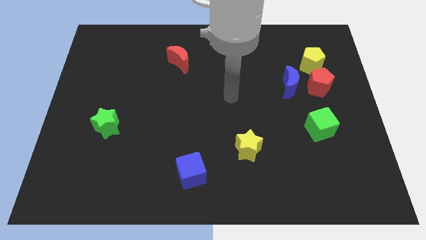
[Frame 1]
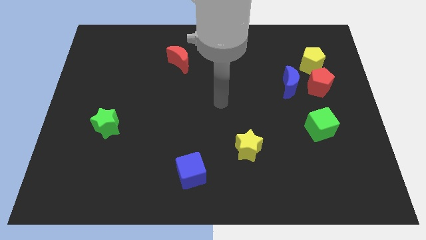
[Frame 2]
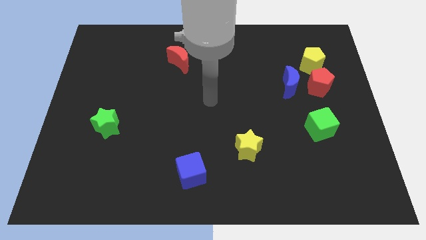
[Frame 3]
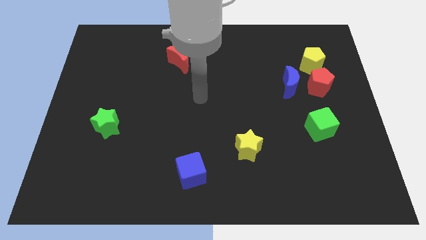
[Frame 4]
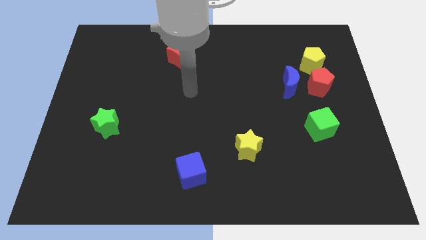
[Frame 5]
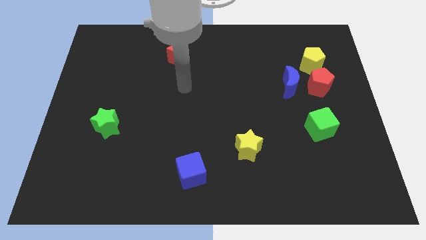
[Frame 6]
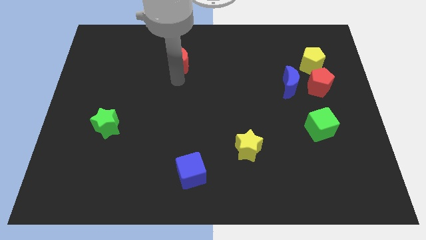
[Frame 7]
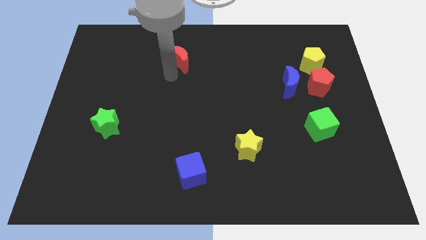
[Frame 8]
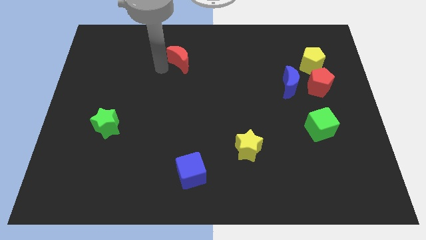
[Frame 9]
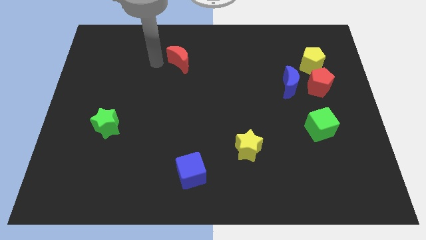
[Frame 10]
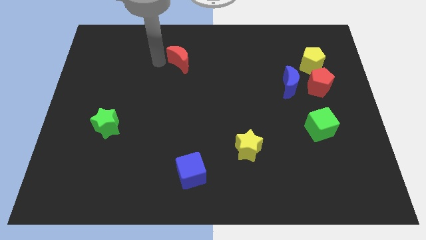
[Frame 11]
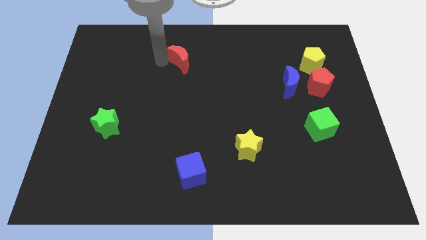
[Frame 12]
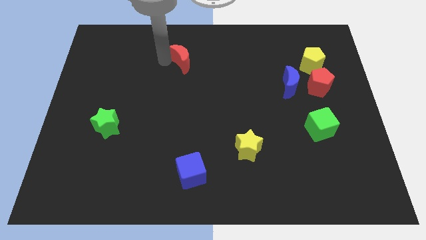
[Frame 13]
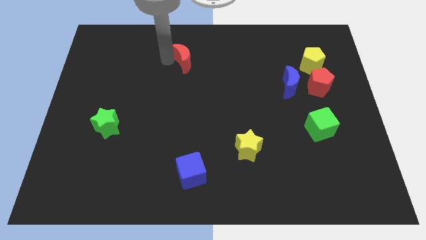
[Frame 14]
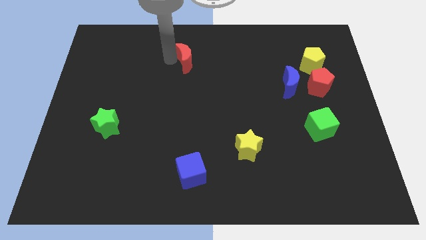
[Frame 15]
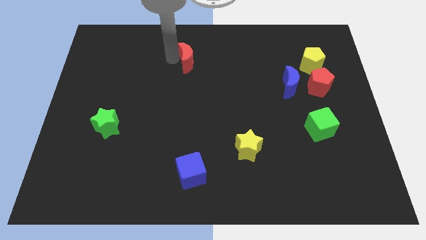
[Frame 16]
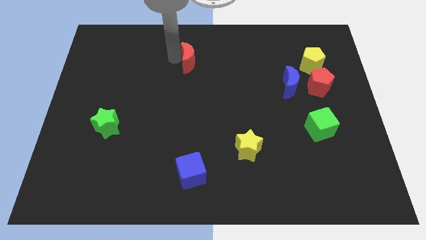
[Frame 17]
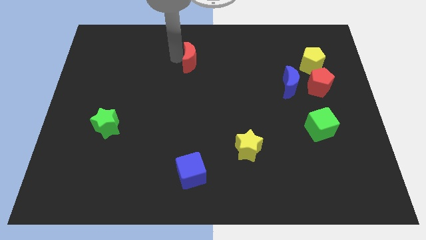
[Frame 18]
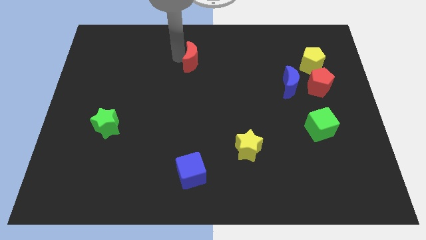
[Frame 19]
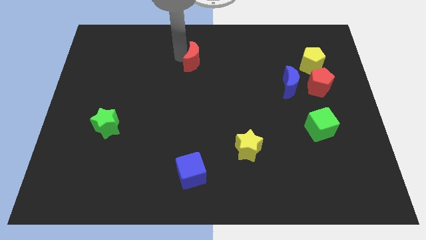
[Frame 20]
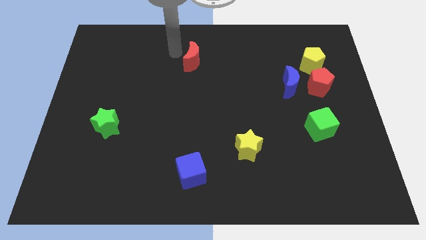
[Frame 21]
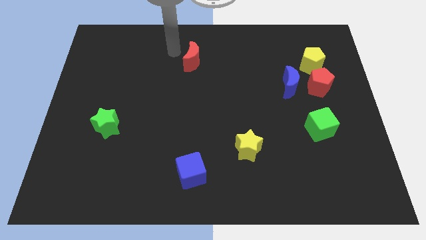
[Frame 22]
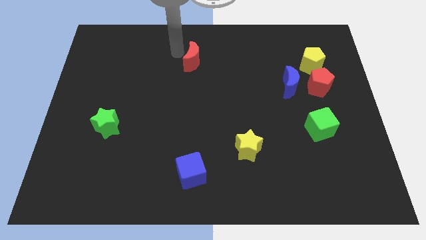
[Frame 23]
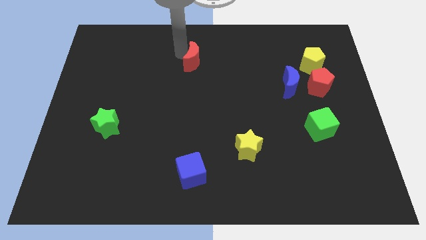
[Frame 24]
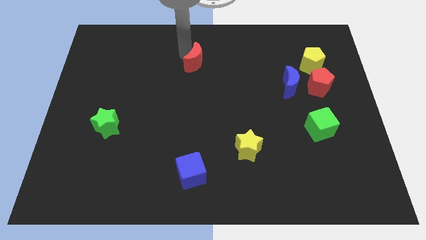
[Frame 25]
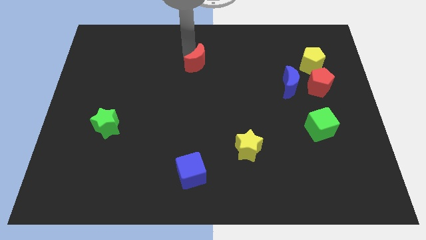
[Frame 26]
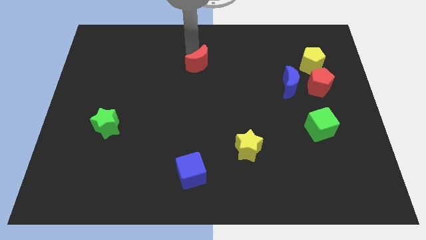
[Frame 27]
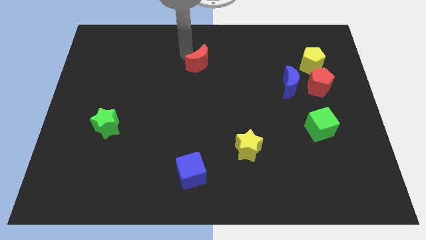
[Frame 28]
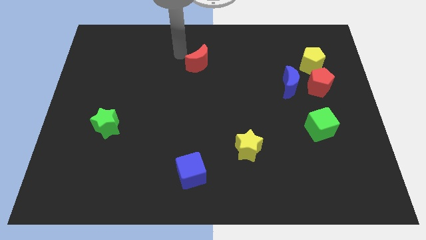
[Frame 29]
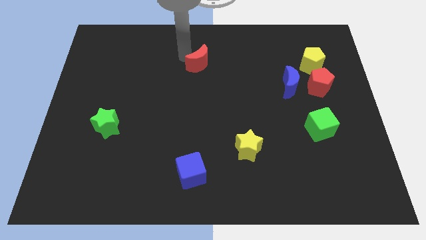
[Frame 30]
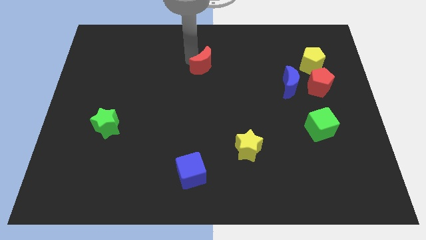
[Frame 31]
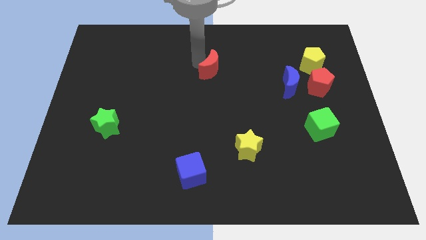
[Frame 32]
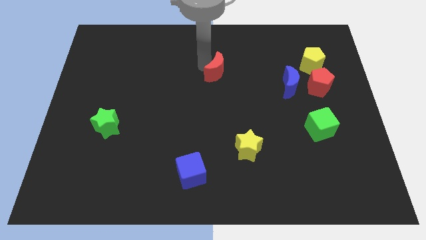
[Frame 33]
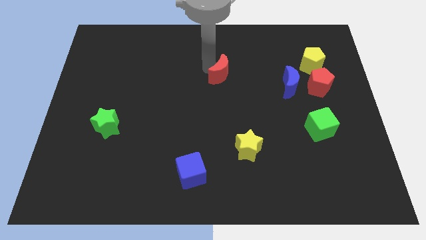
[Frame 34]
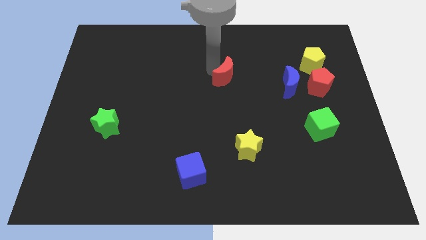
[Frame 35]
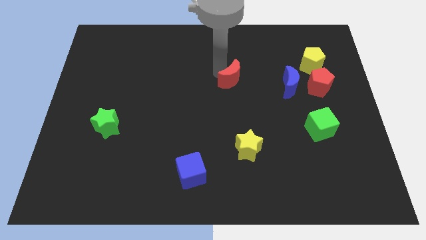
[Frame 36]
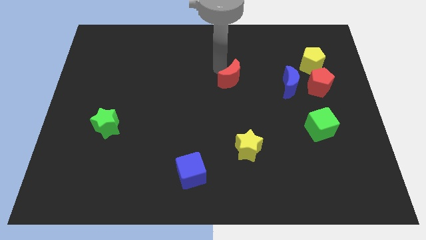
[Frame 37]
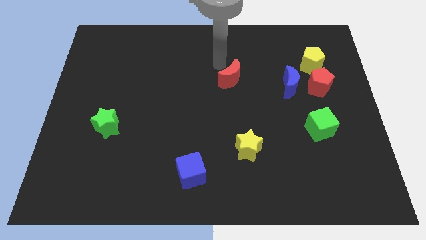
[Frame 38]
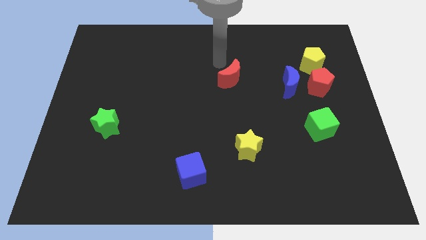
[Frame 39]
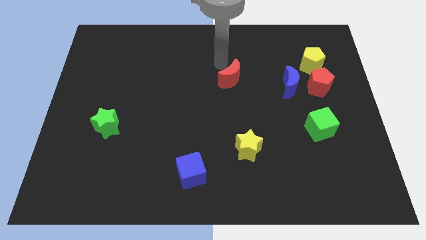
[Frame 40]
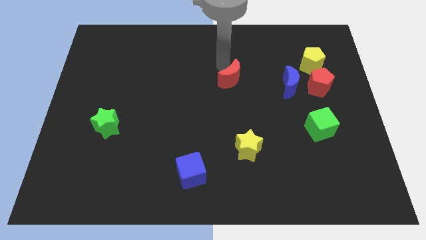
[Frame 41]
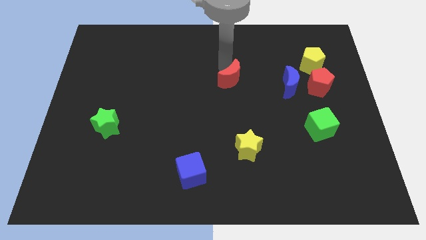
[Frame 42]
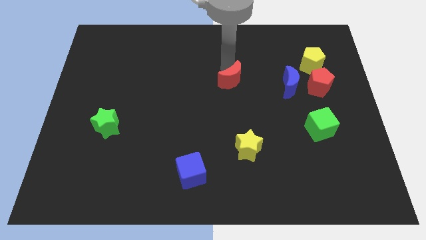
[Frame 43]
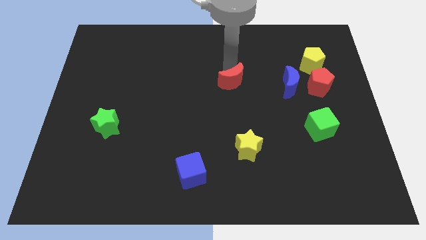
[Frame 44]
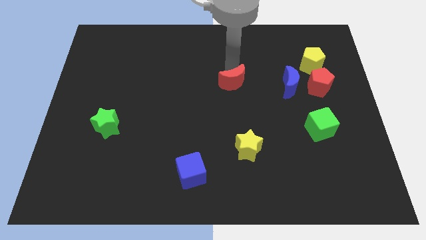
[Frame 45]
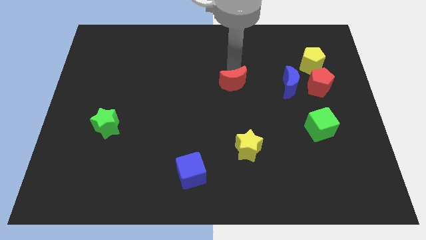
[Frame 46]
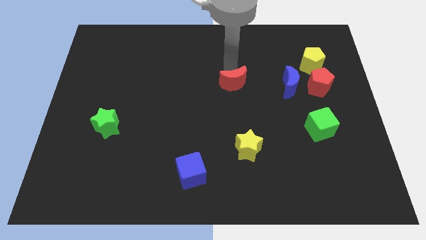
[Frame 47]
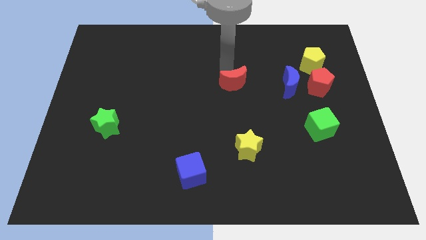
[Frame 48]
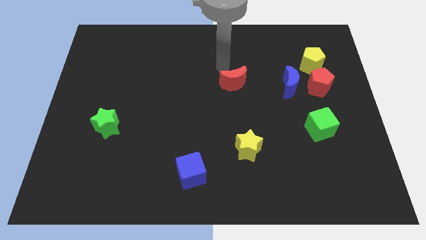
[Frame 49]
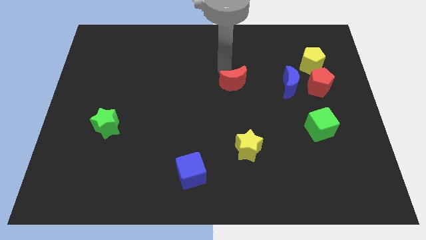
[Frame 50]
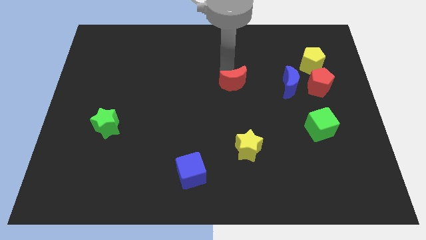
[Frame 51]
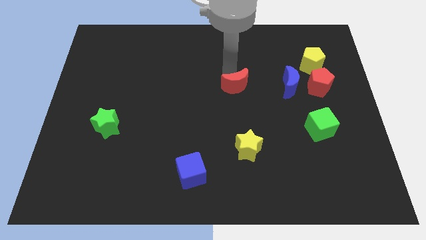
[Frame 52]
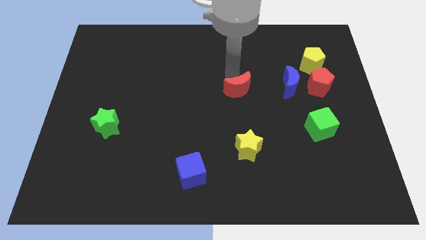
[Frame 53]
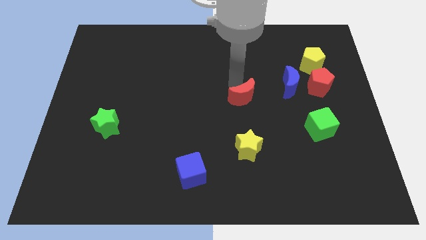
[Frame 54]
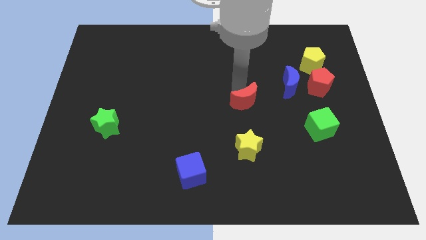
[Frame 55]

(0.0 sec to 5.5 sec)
slide the red moon downwards and to the right

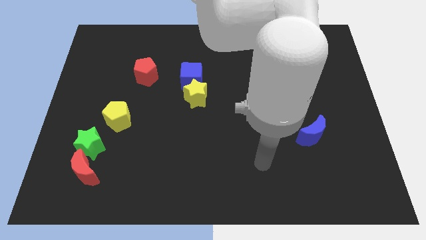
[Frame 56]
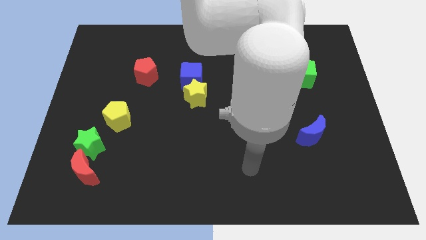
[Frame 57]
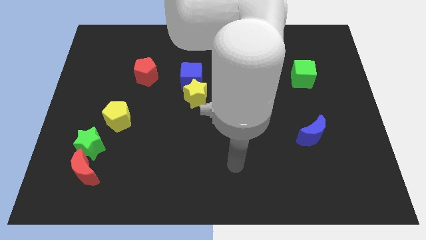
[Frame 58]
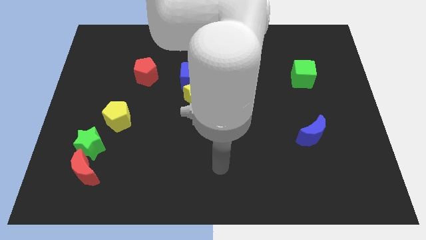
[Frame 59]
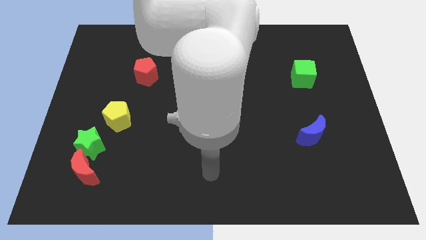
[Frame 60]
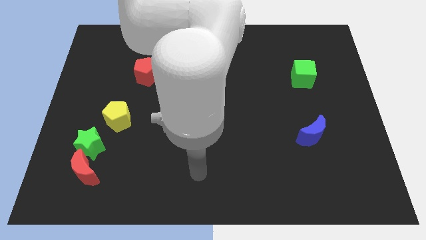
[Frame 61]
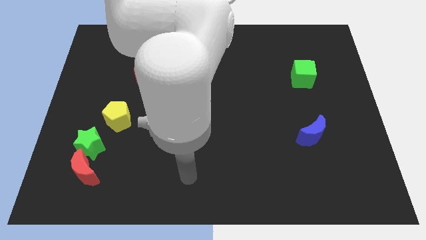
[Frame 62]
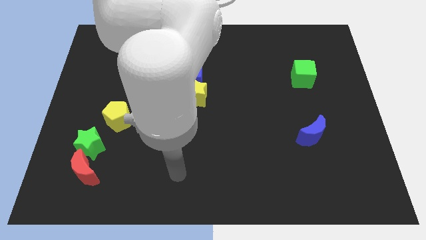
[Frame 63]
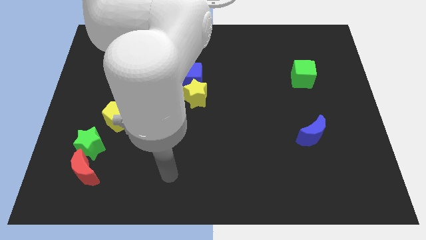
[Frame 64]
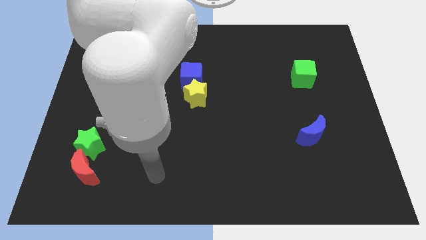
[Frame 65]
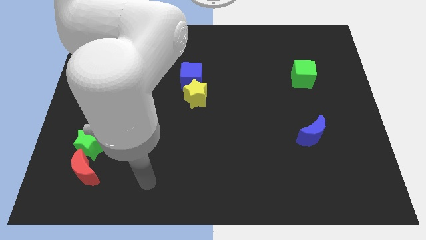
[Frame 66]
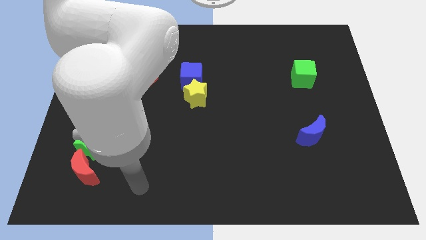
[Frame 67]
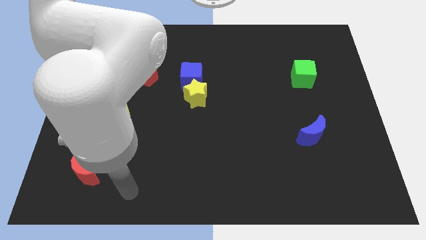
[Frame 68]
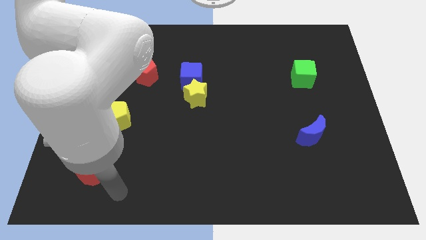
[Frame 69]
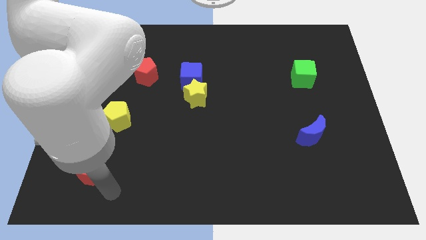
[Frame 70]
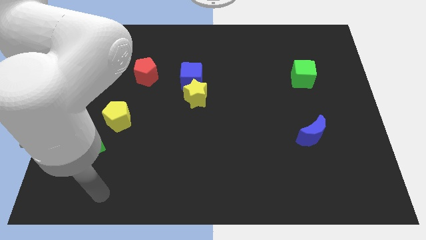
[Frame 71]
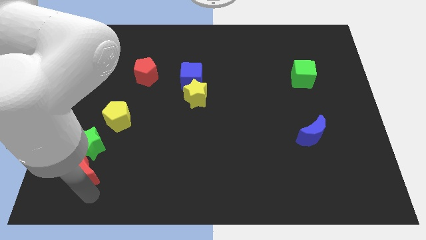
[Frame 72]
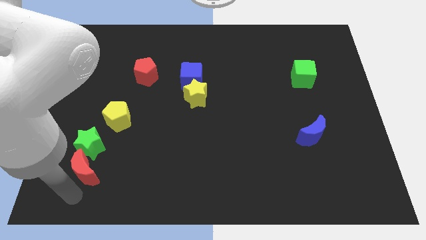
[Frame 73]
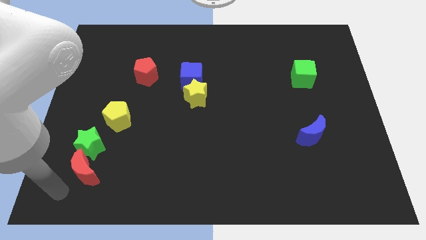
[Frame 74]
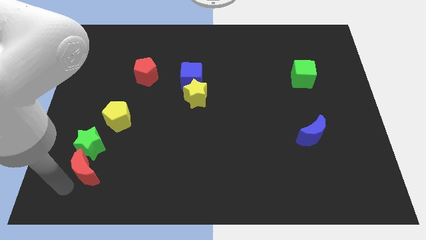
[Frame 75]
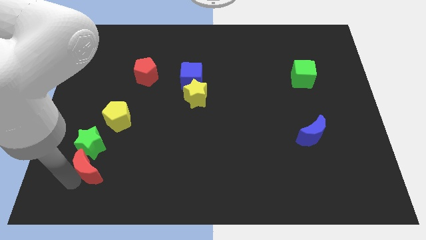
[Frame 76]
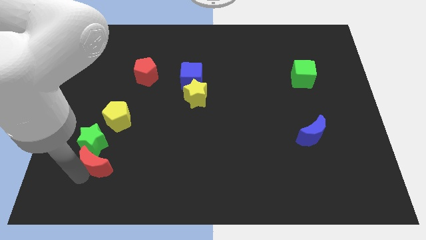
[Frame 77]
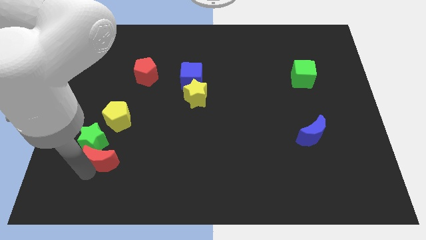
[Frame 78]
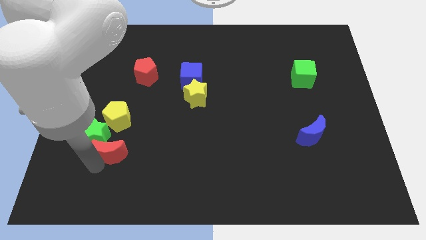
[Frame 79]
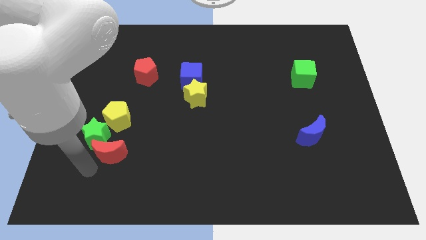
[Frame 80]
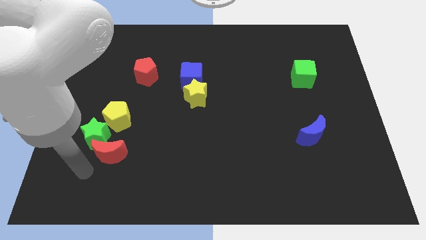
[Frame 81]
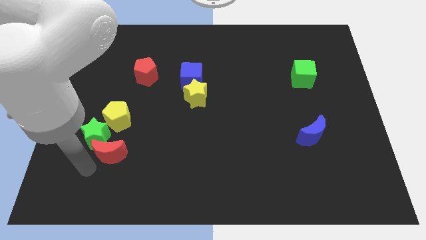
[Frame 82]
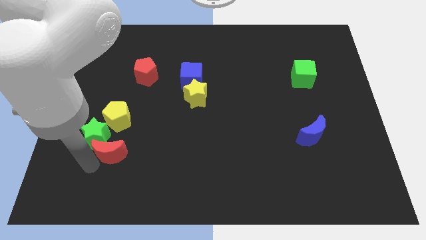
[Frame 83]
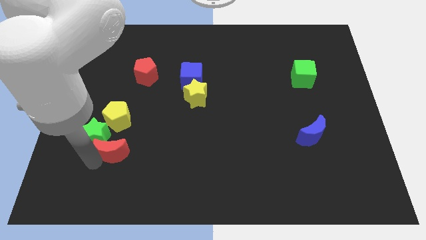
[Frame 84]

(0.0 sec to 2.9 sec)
move the red moon a little bit up and right
